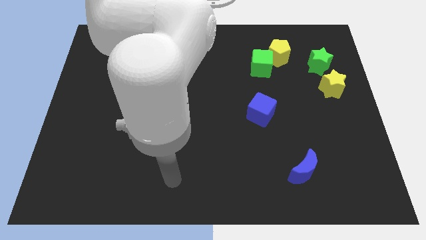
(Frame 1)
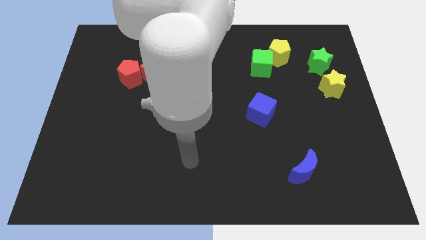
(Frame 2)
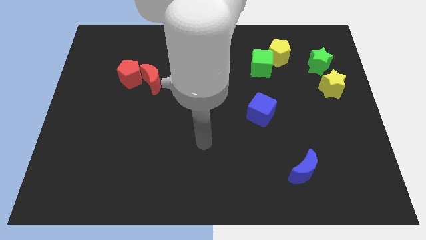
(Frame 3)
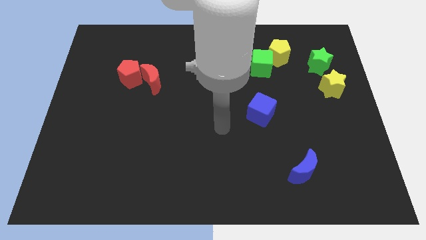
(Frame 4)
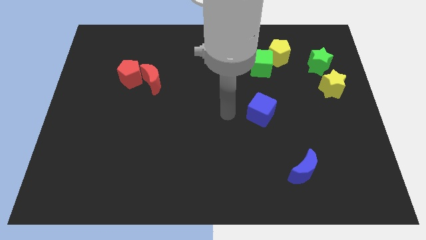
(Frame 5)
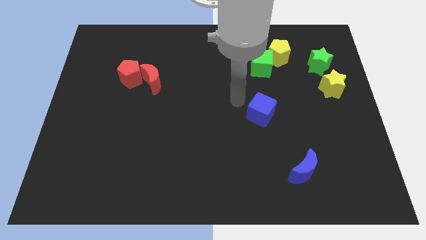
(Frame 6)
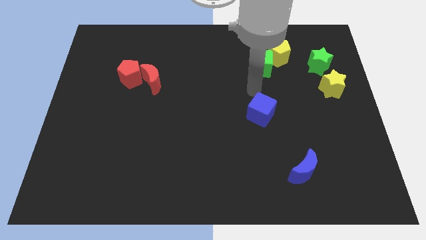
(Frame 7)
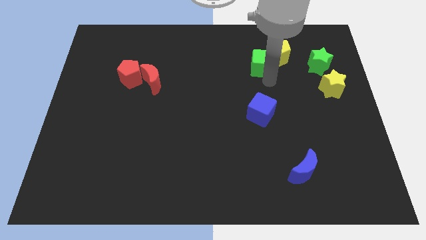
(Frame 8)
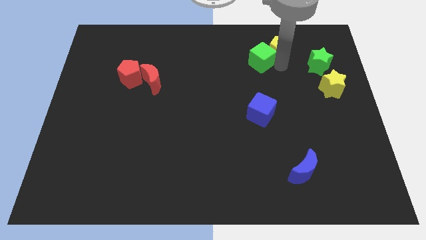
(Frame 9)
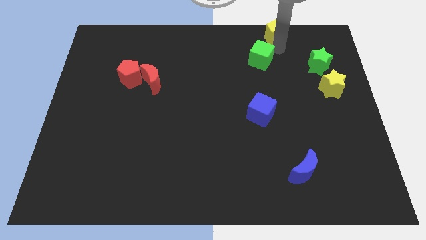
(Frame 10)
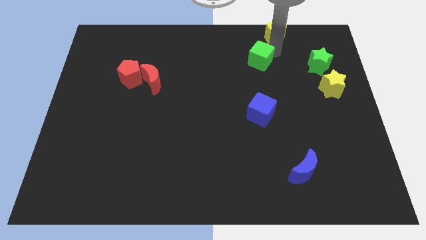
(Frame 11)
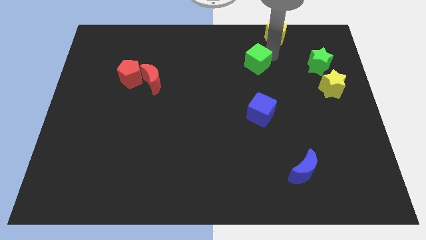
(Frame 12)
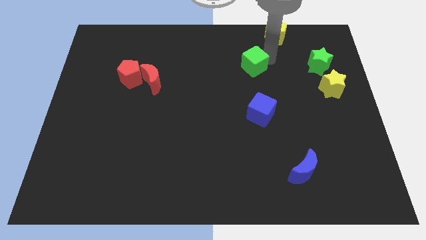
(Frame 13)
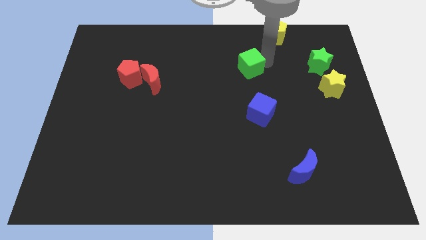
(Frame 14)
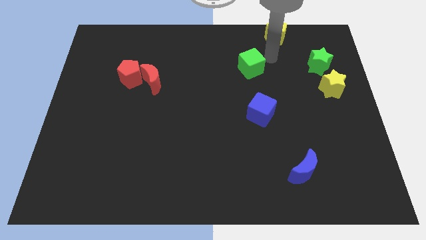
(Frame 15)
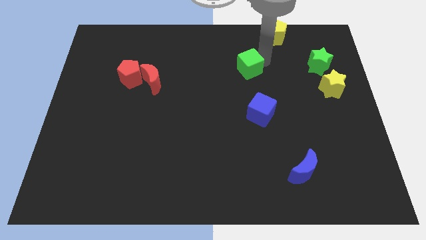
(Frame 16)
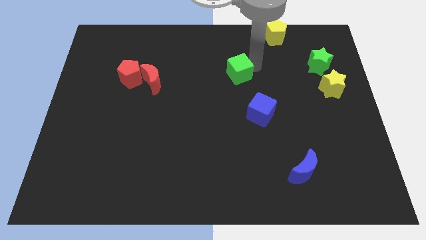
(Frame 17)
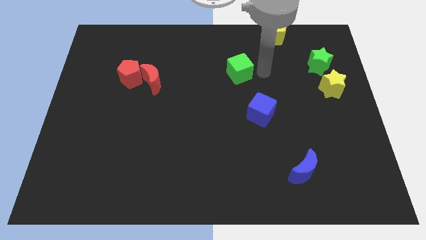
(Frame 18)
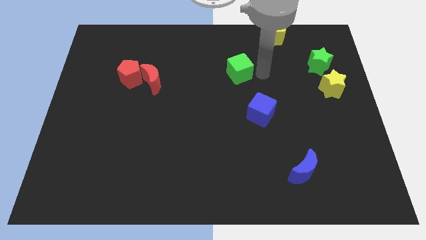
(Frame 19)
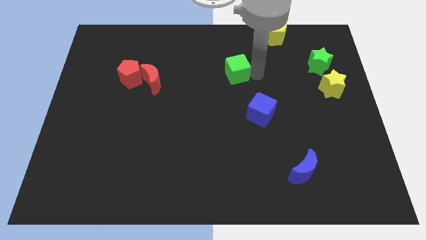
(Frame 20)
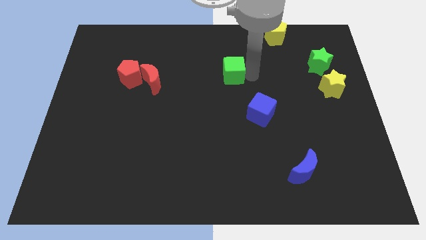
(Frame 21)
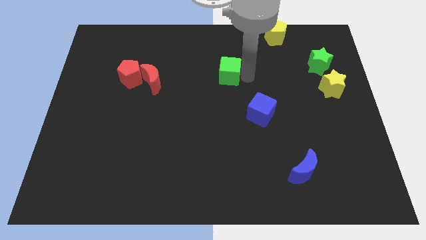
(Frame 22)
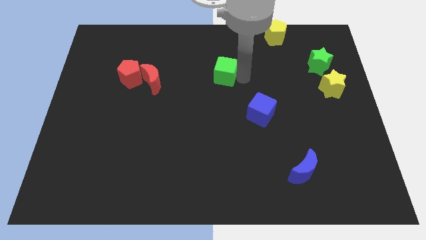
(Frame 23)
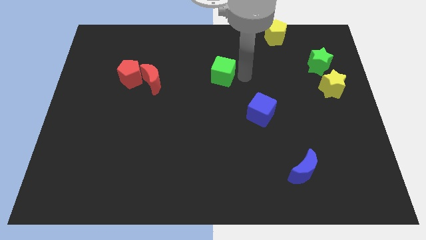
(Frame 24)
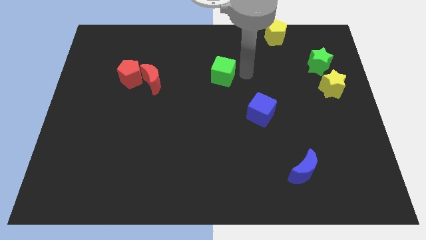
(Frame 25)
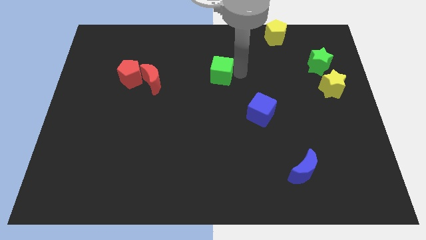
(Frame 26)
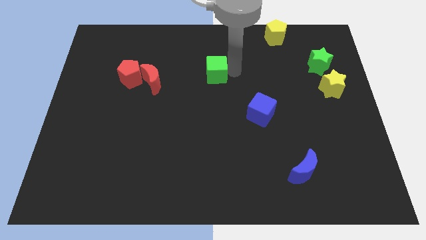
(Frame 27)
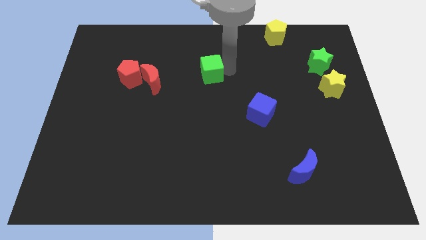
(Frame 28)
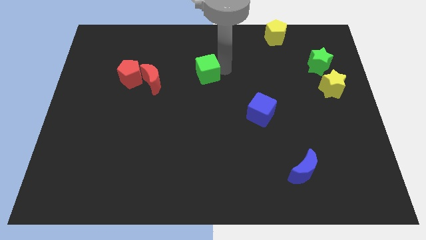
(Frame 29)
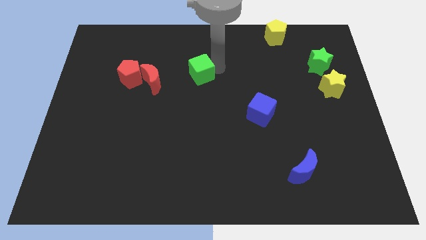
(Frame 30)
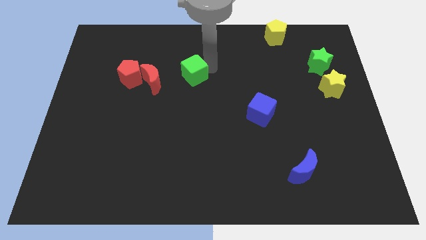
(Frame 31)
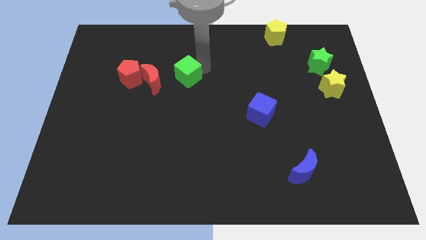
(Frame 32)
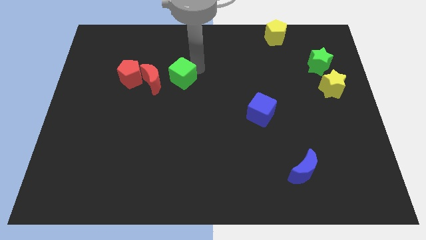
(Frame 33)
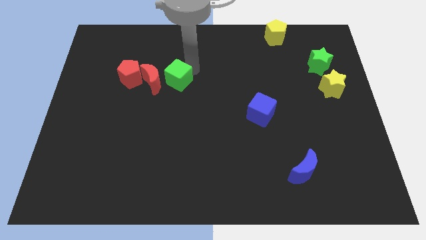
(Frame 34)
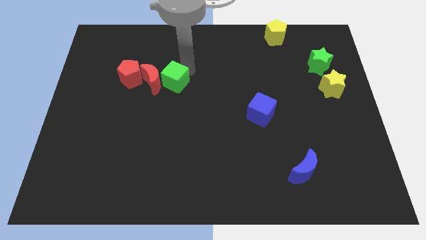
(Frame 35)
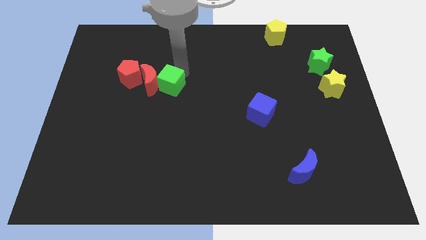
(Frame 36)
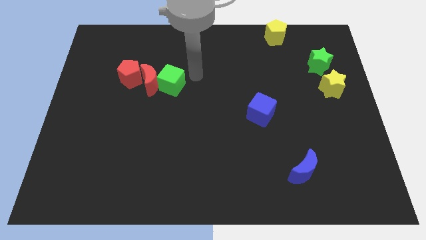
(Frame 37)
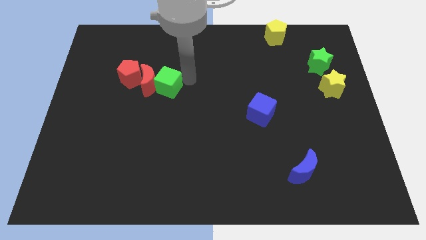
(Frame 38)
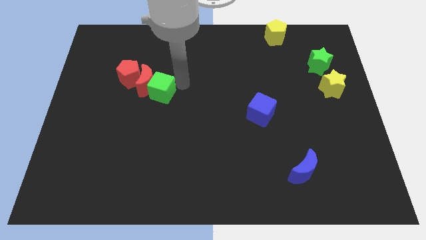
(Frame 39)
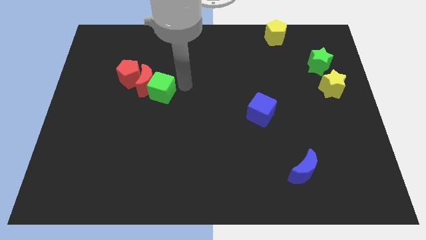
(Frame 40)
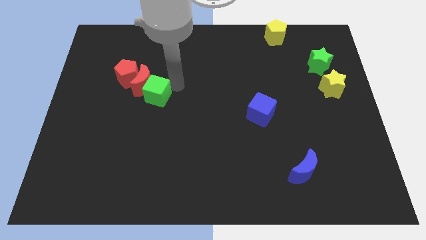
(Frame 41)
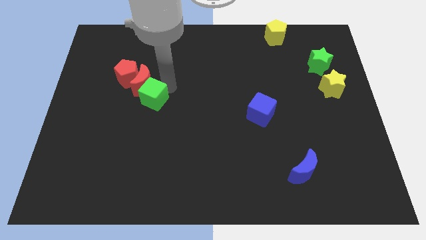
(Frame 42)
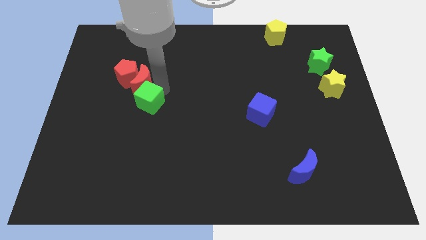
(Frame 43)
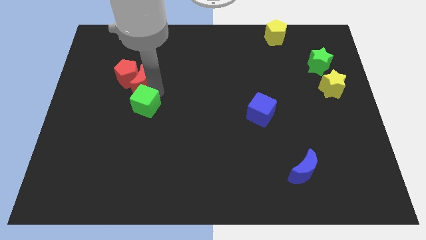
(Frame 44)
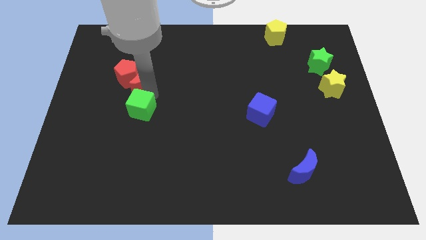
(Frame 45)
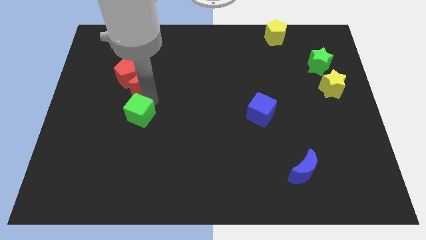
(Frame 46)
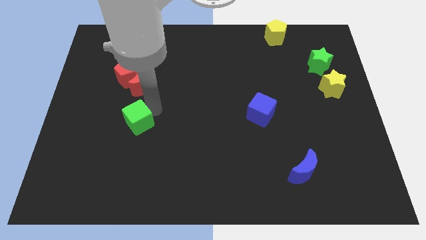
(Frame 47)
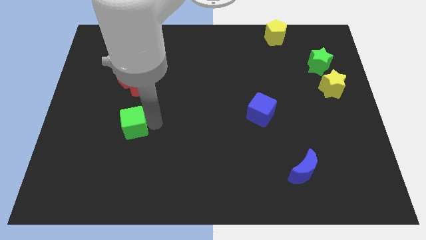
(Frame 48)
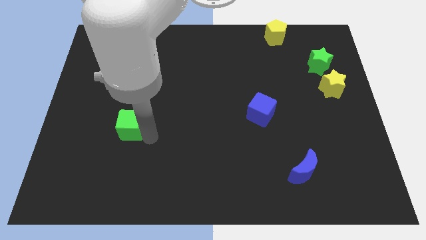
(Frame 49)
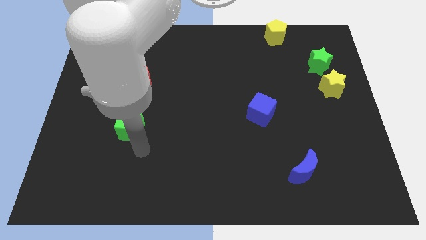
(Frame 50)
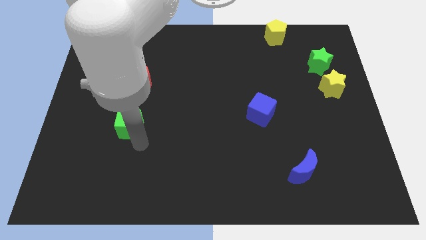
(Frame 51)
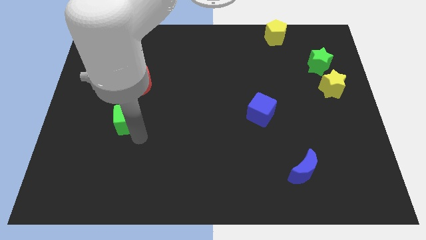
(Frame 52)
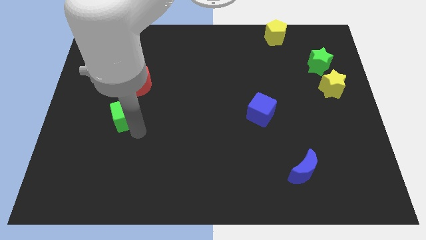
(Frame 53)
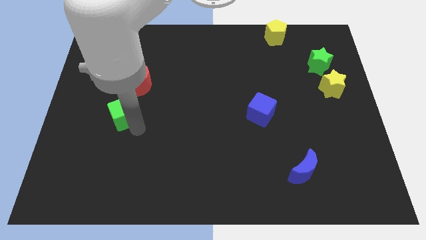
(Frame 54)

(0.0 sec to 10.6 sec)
push the green cube to the bottom left of the red moon

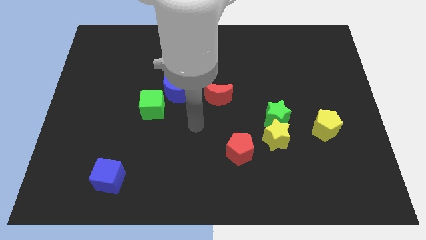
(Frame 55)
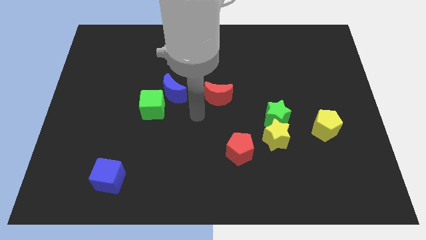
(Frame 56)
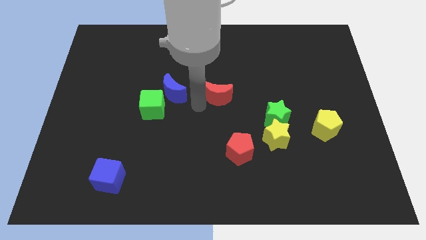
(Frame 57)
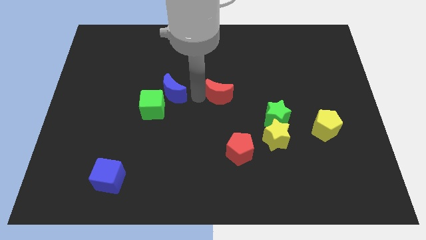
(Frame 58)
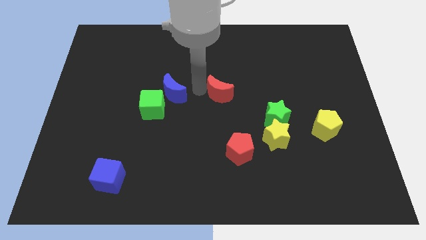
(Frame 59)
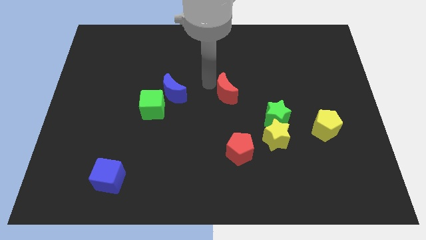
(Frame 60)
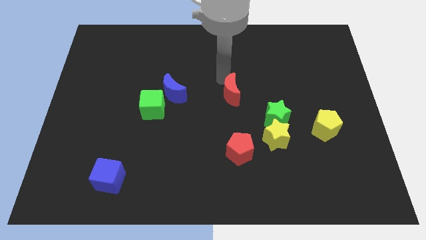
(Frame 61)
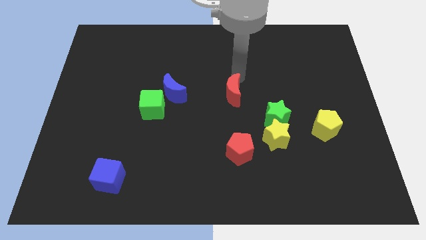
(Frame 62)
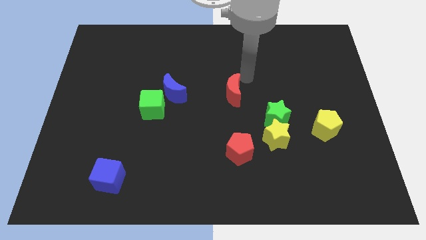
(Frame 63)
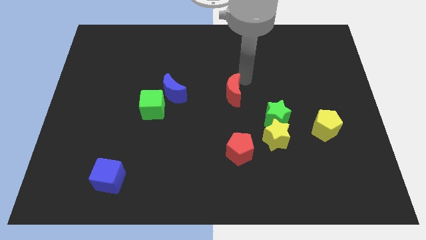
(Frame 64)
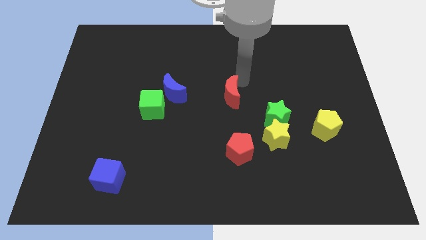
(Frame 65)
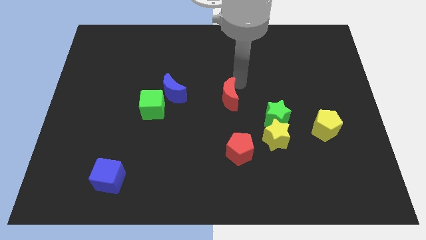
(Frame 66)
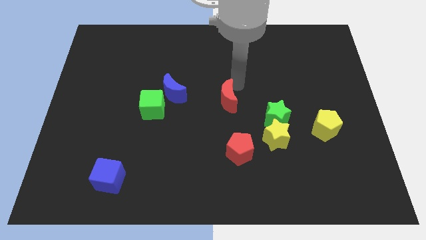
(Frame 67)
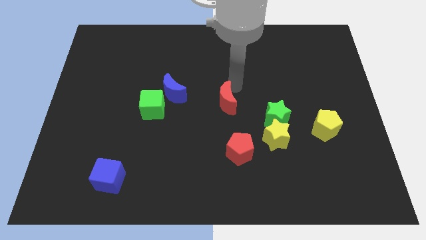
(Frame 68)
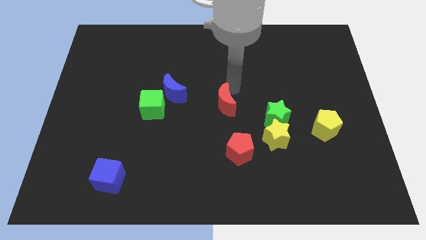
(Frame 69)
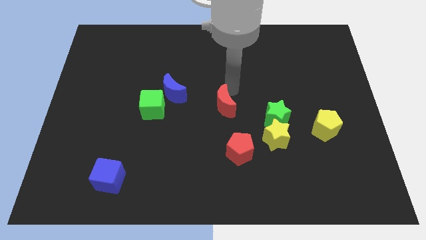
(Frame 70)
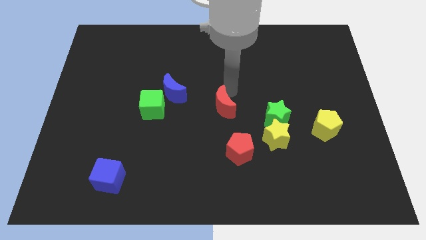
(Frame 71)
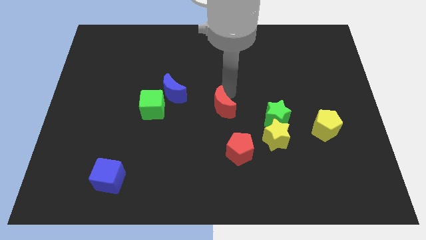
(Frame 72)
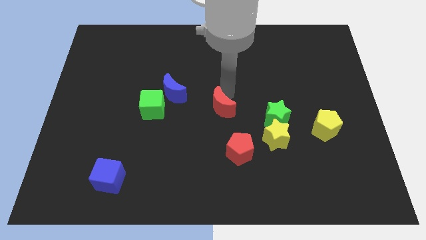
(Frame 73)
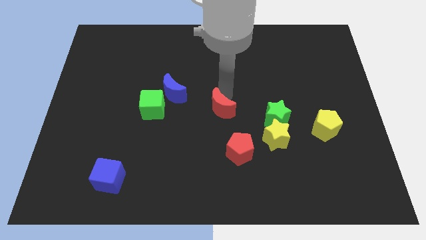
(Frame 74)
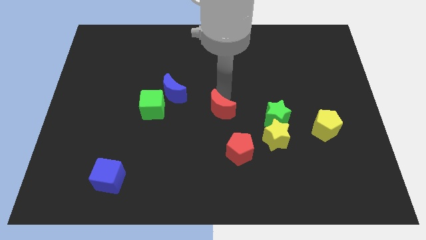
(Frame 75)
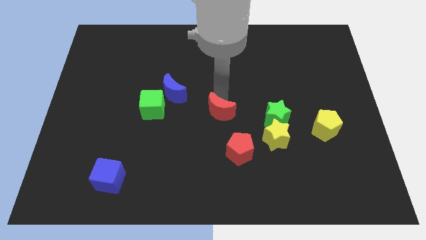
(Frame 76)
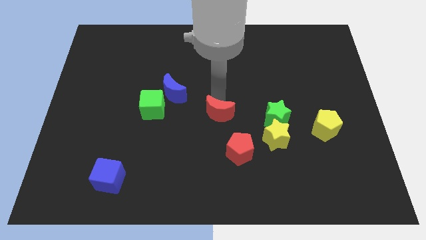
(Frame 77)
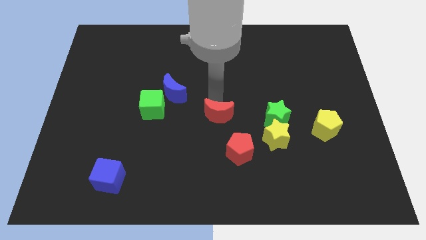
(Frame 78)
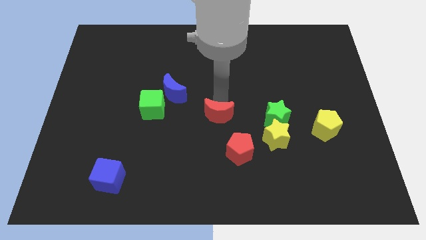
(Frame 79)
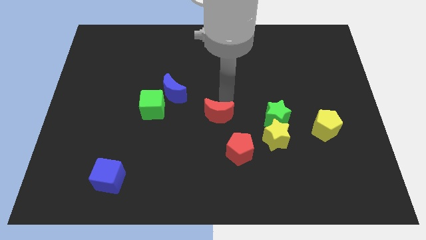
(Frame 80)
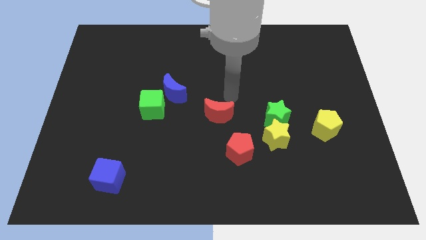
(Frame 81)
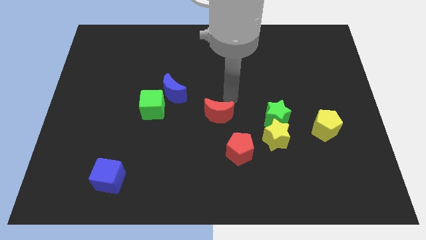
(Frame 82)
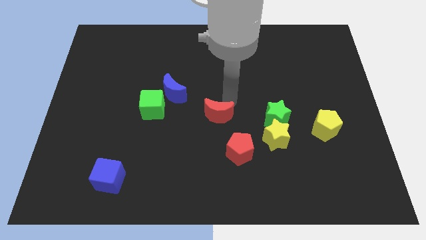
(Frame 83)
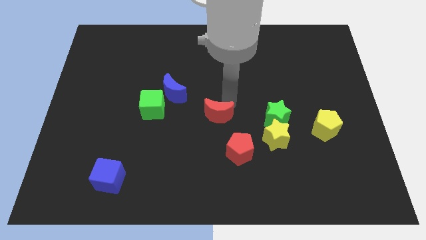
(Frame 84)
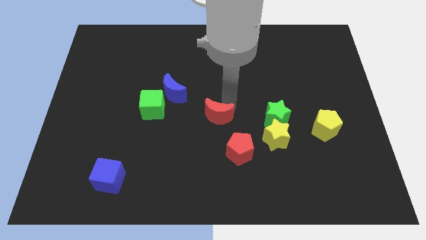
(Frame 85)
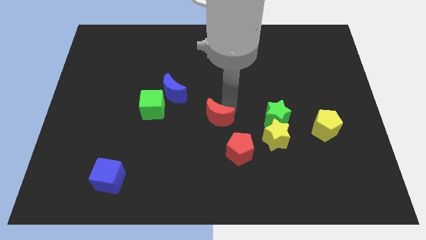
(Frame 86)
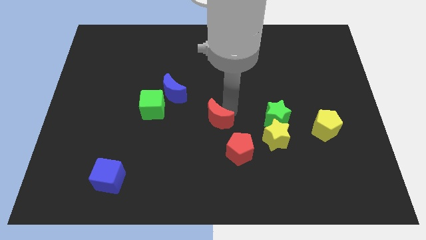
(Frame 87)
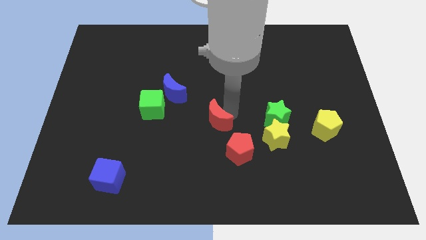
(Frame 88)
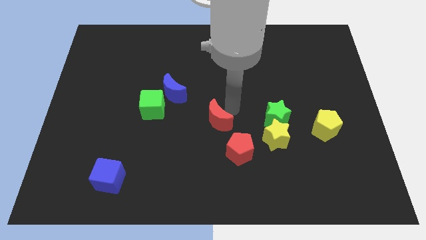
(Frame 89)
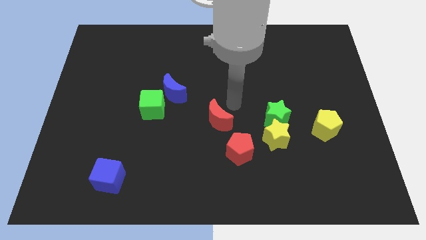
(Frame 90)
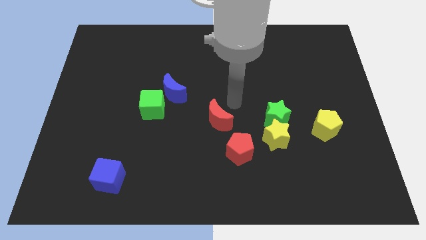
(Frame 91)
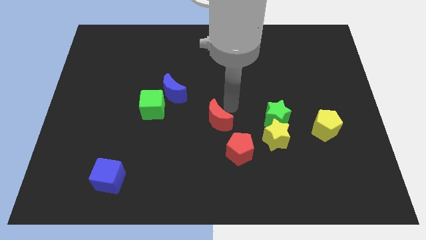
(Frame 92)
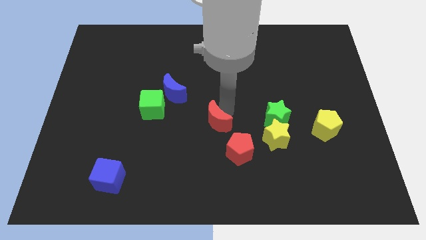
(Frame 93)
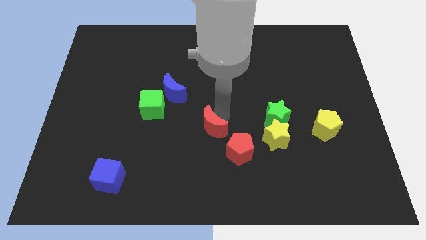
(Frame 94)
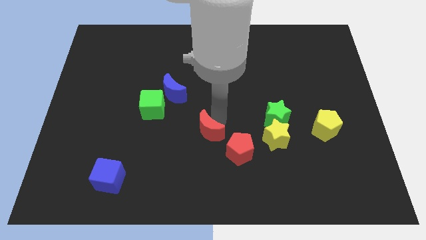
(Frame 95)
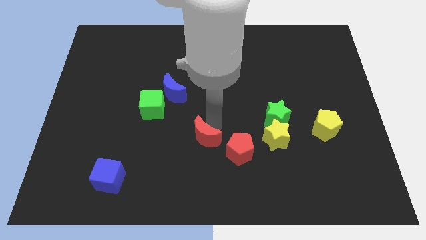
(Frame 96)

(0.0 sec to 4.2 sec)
push the red moon to the left side of the red pentagon
